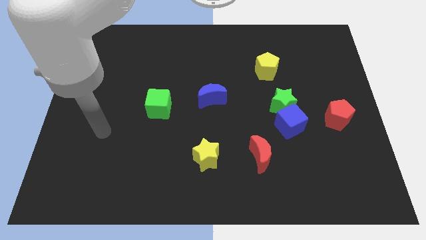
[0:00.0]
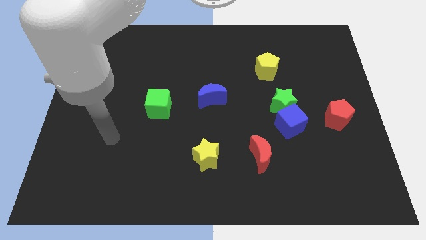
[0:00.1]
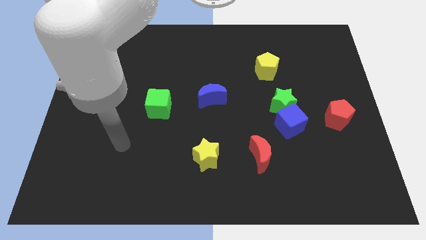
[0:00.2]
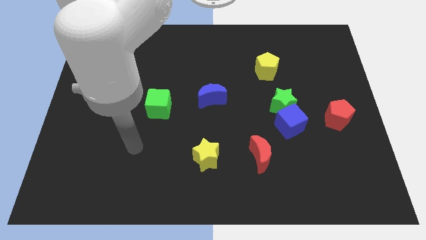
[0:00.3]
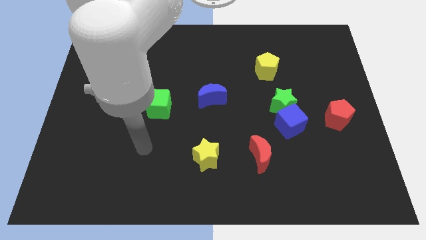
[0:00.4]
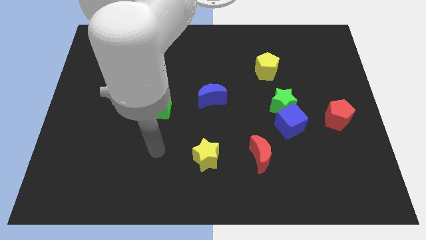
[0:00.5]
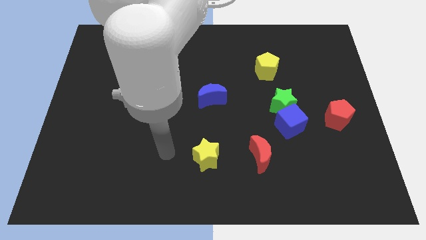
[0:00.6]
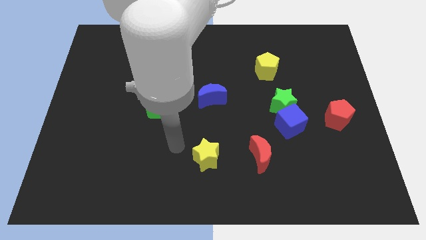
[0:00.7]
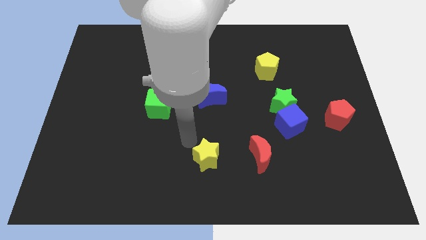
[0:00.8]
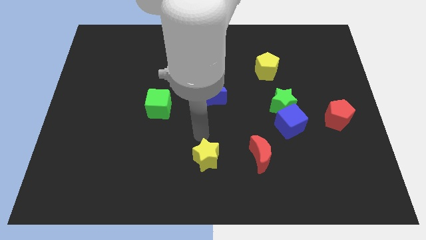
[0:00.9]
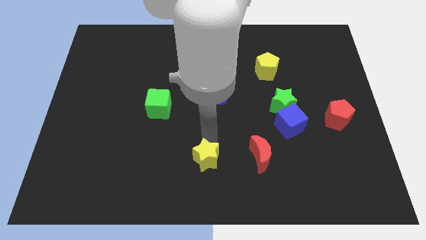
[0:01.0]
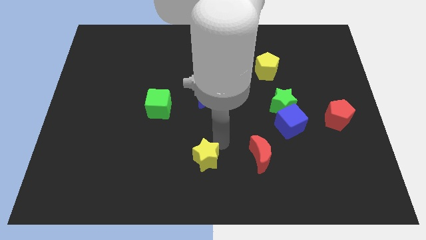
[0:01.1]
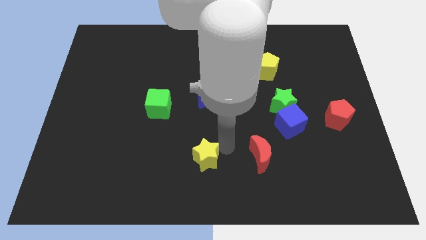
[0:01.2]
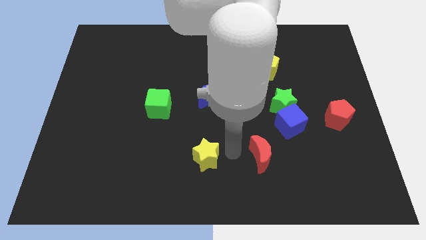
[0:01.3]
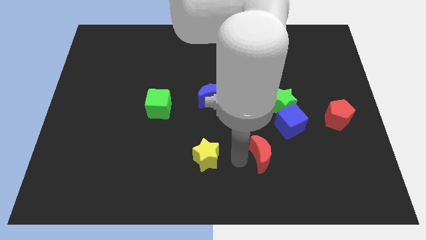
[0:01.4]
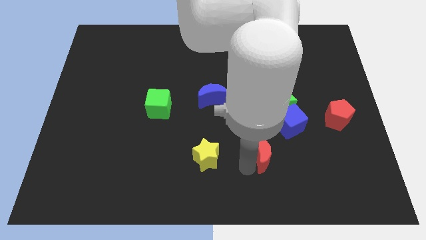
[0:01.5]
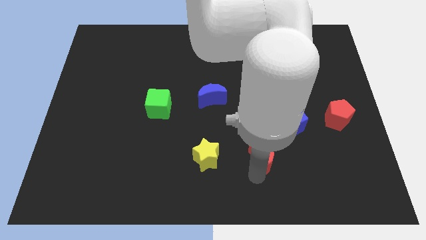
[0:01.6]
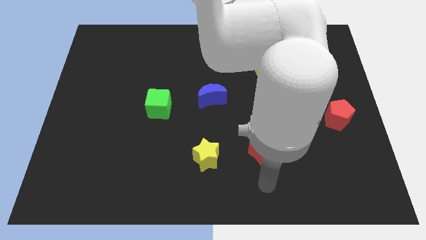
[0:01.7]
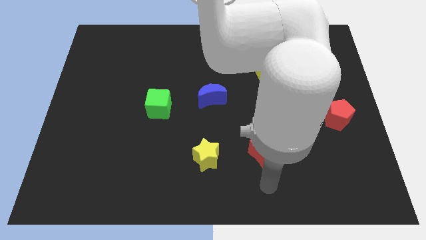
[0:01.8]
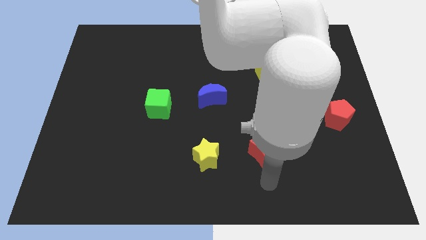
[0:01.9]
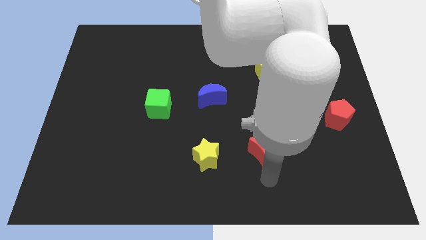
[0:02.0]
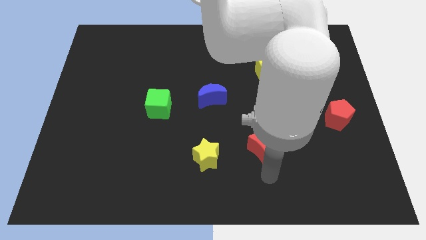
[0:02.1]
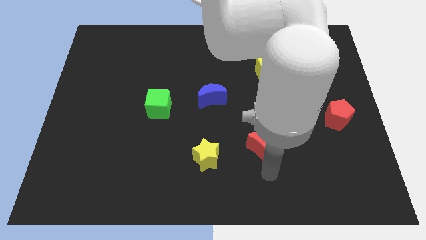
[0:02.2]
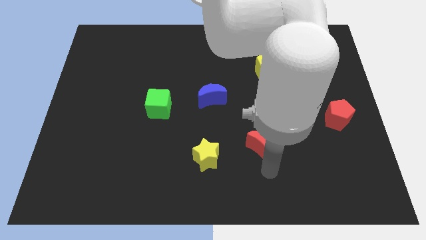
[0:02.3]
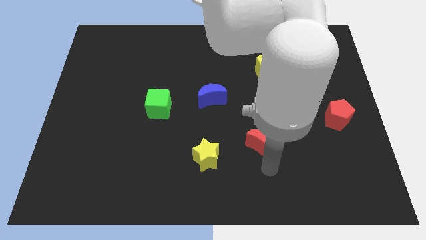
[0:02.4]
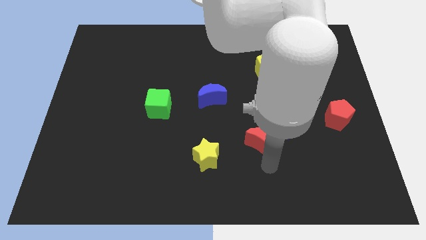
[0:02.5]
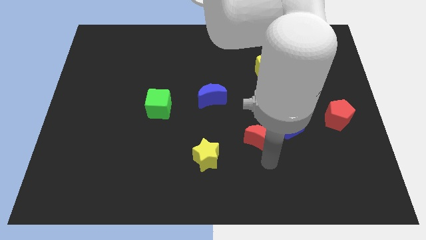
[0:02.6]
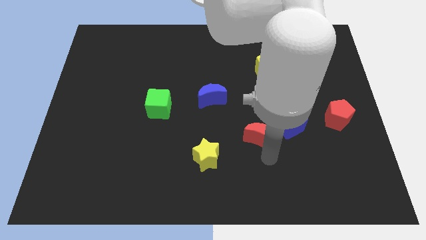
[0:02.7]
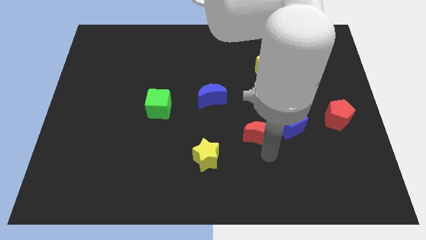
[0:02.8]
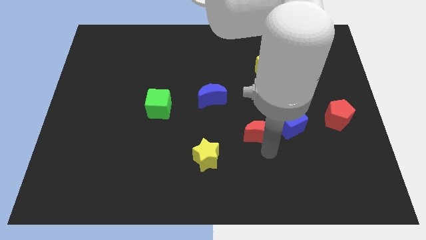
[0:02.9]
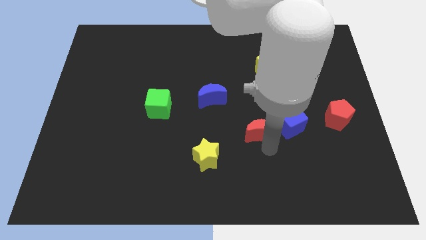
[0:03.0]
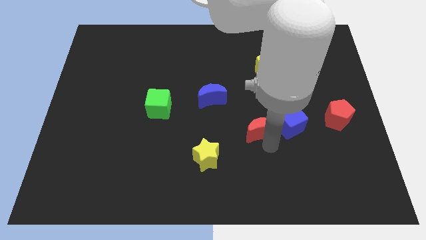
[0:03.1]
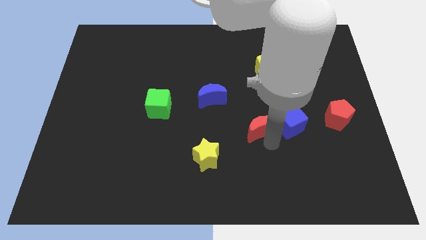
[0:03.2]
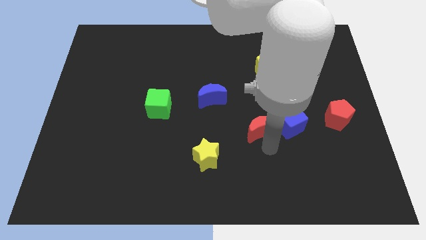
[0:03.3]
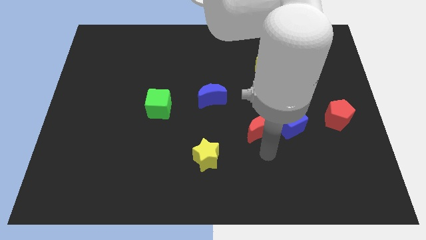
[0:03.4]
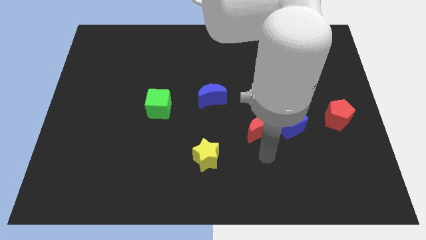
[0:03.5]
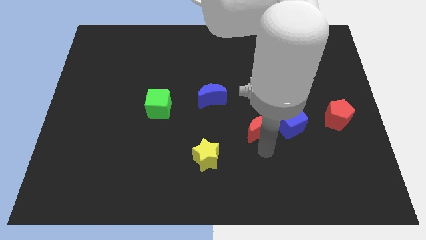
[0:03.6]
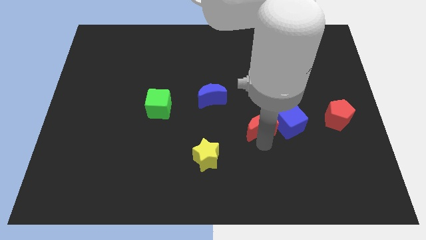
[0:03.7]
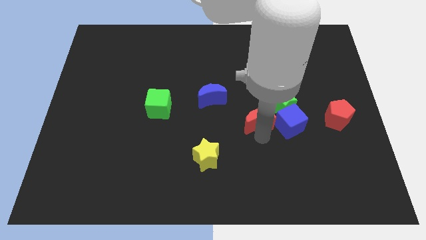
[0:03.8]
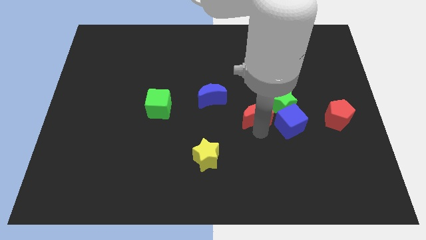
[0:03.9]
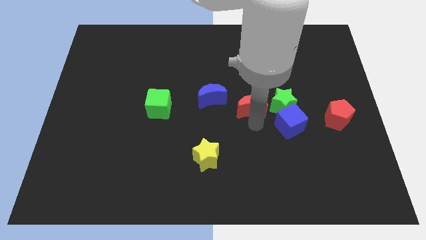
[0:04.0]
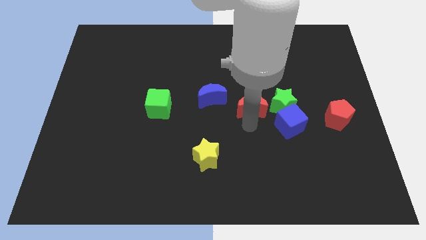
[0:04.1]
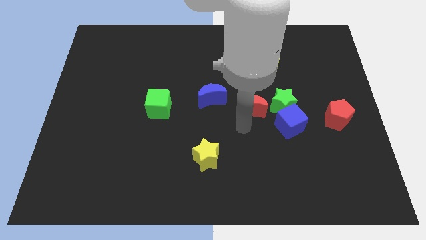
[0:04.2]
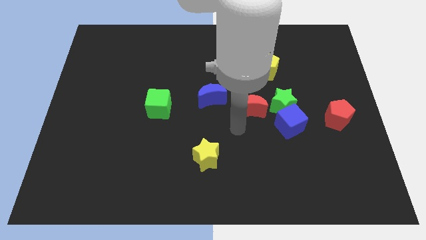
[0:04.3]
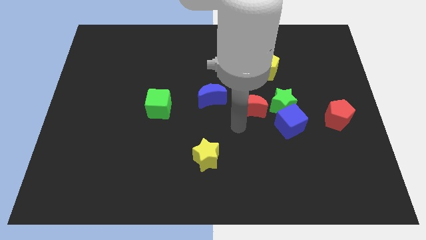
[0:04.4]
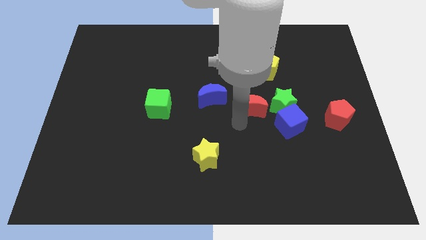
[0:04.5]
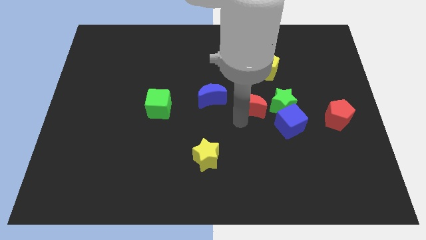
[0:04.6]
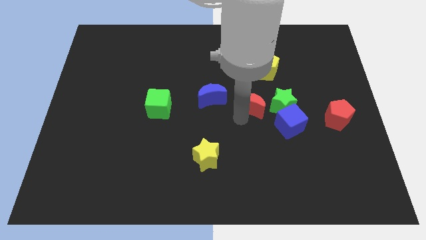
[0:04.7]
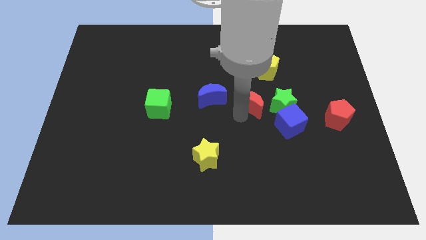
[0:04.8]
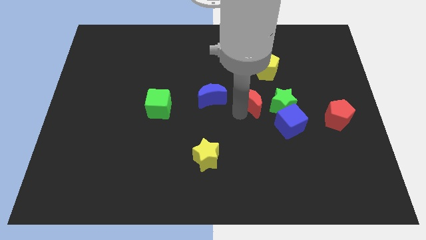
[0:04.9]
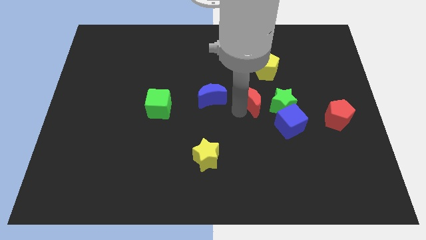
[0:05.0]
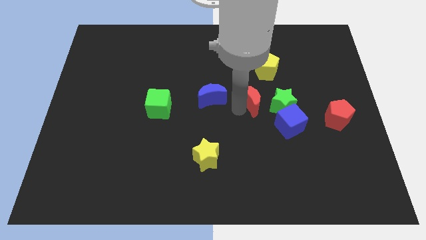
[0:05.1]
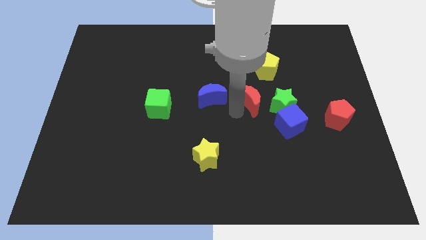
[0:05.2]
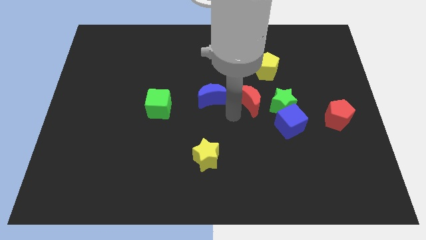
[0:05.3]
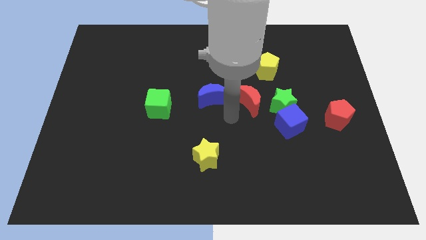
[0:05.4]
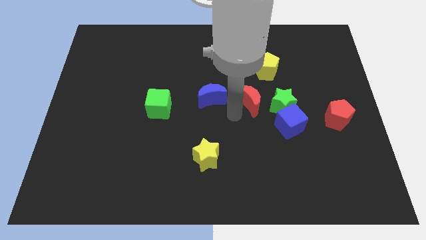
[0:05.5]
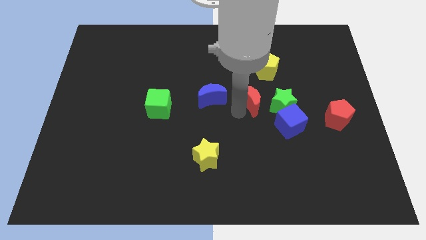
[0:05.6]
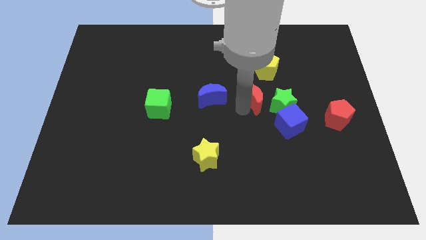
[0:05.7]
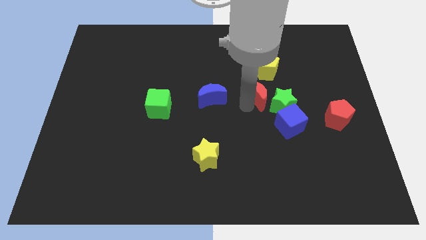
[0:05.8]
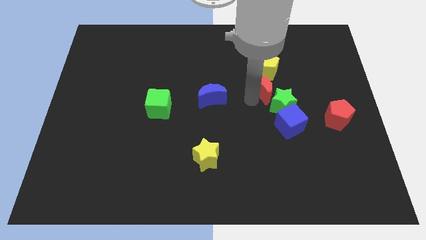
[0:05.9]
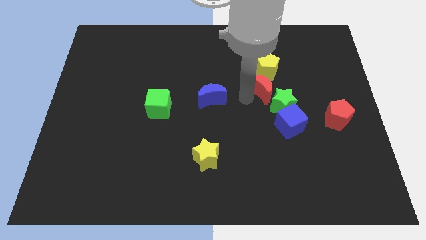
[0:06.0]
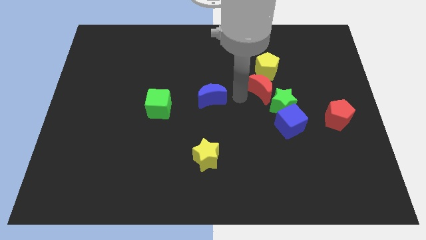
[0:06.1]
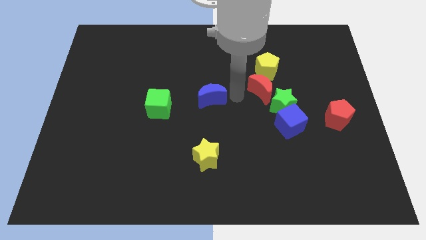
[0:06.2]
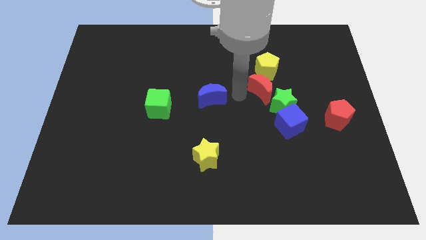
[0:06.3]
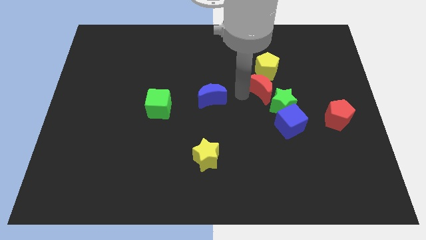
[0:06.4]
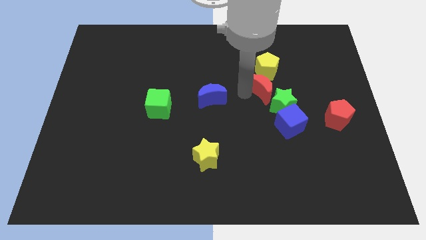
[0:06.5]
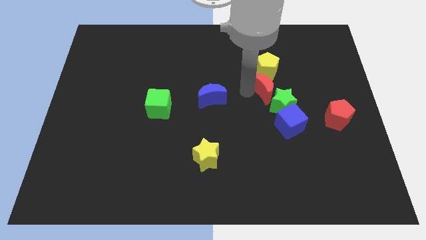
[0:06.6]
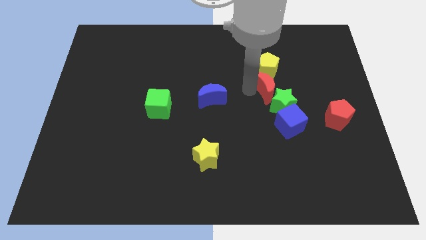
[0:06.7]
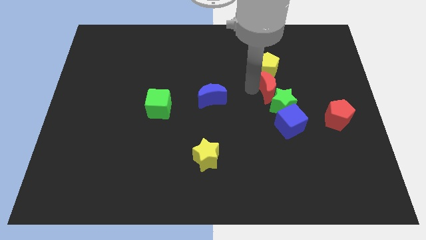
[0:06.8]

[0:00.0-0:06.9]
put the red moon to the bottom right of the yellow pentagon

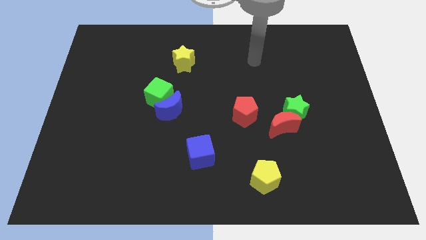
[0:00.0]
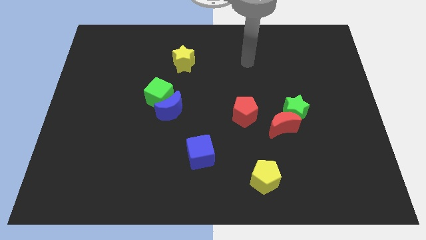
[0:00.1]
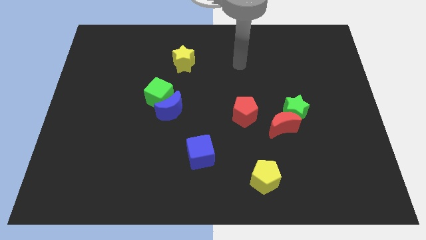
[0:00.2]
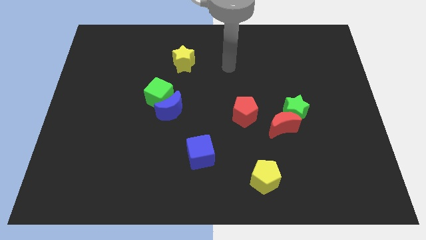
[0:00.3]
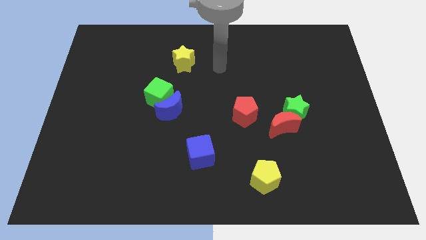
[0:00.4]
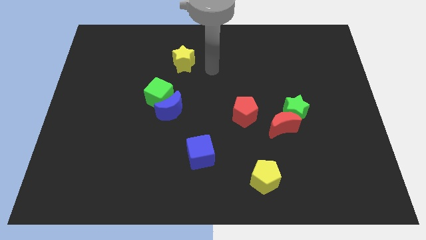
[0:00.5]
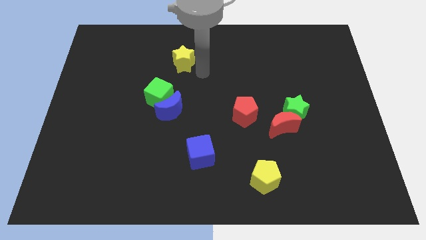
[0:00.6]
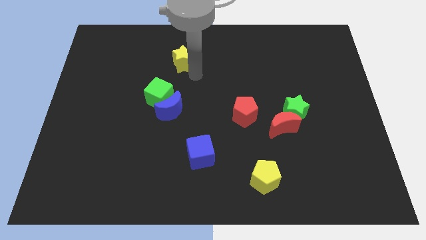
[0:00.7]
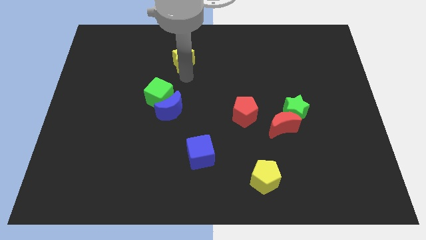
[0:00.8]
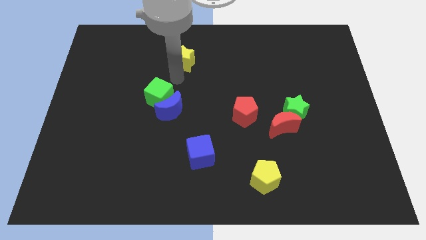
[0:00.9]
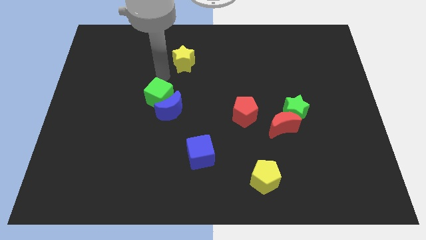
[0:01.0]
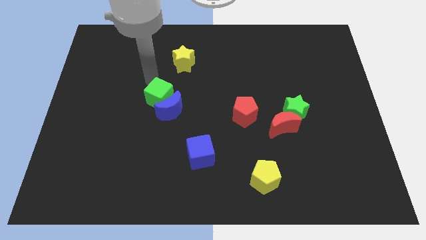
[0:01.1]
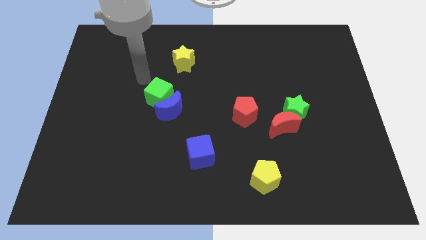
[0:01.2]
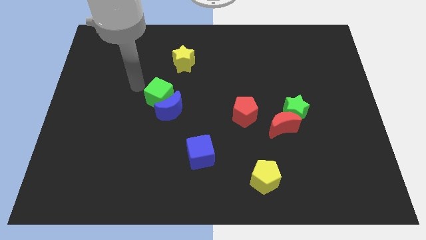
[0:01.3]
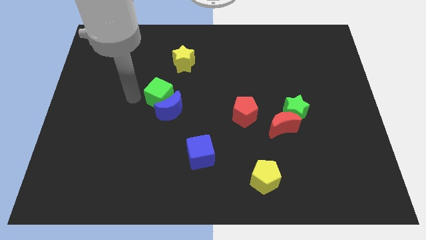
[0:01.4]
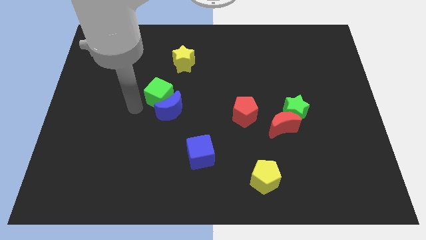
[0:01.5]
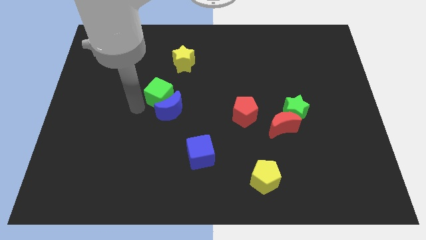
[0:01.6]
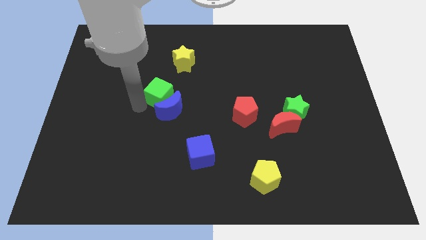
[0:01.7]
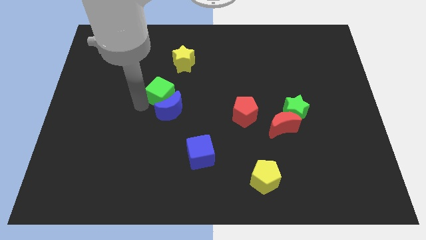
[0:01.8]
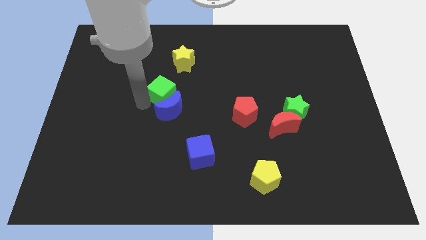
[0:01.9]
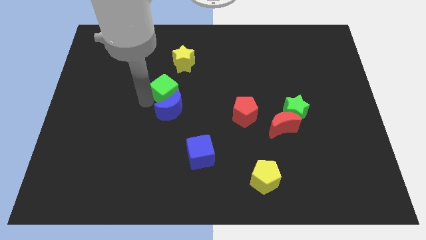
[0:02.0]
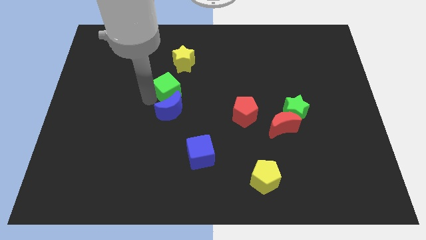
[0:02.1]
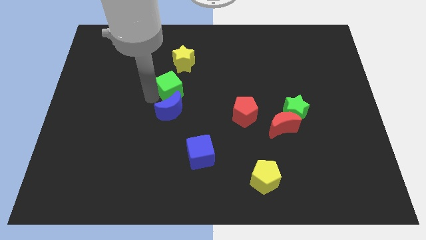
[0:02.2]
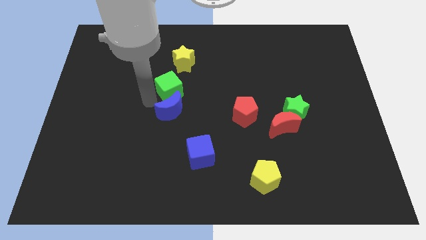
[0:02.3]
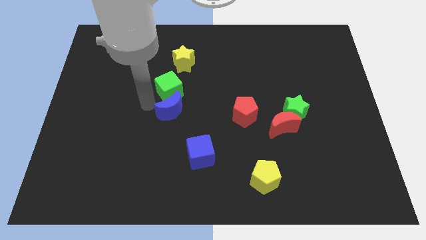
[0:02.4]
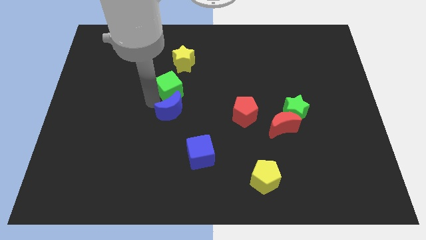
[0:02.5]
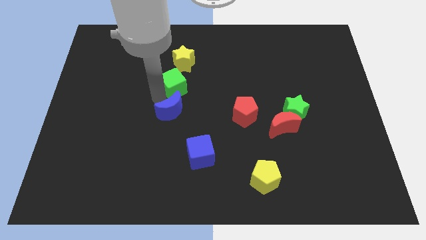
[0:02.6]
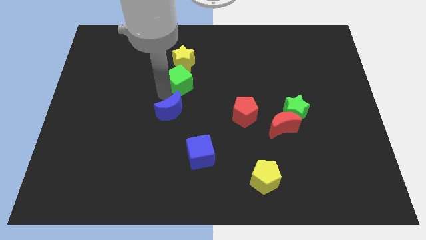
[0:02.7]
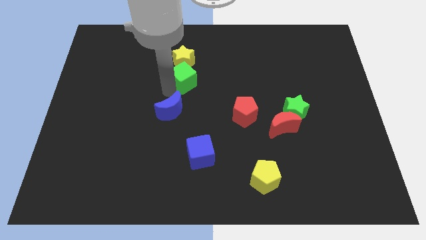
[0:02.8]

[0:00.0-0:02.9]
put the green cube to the bottom right of the yellow star
